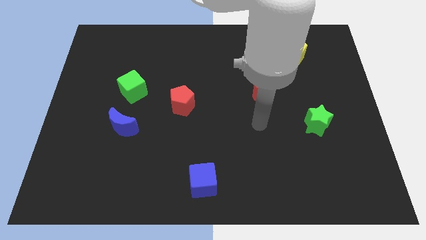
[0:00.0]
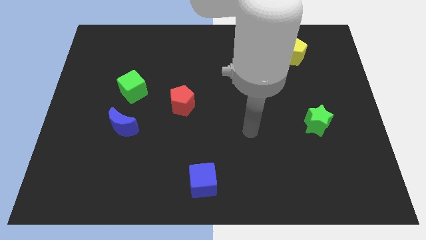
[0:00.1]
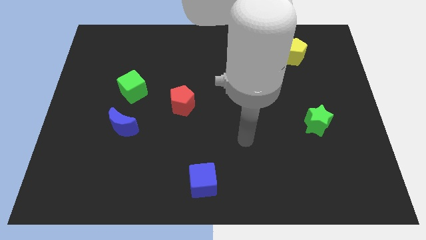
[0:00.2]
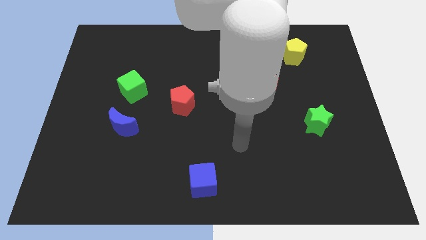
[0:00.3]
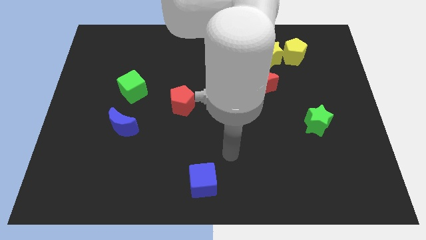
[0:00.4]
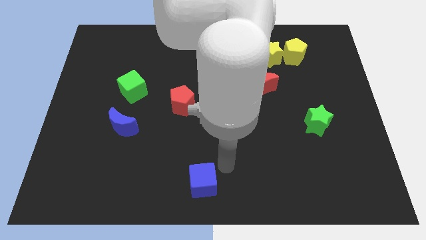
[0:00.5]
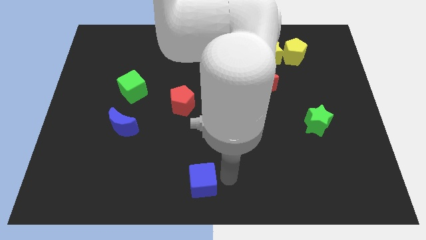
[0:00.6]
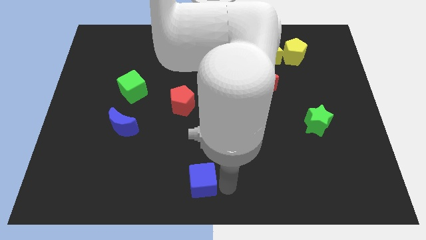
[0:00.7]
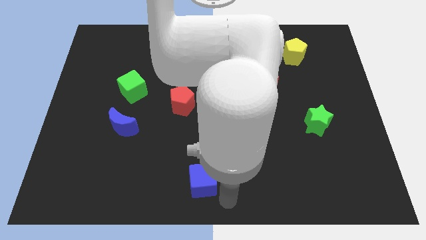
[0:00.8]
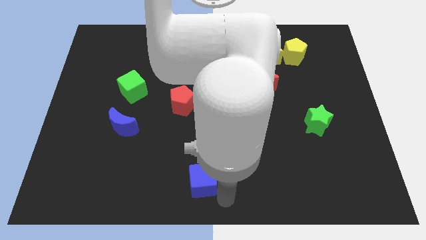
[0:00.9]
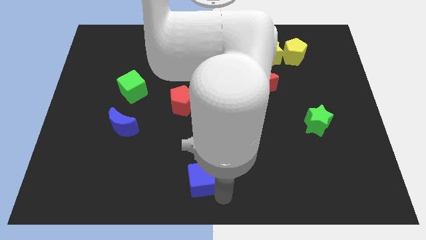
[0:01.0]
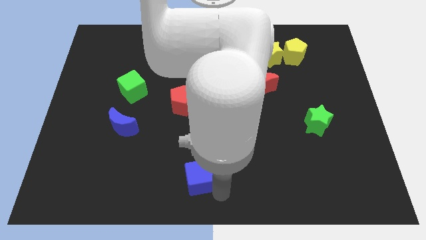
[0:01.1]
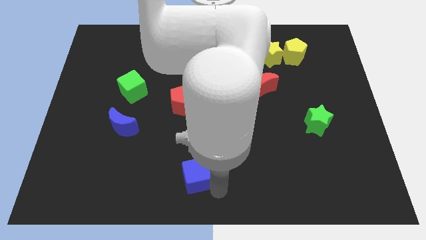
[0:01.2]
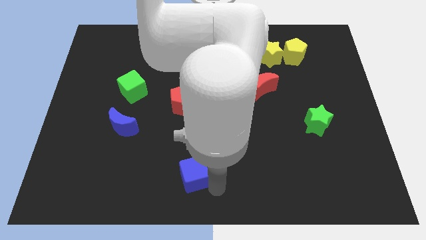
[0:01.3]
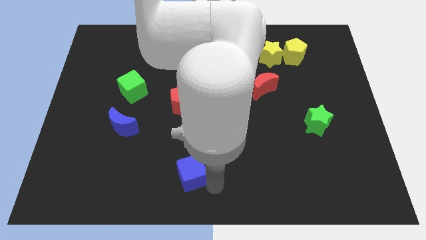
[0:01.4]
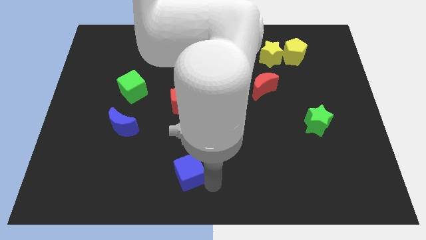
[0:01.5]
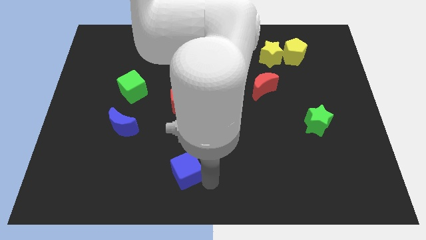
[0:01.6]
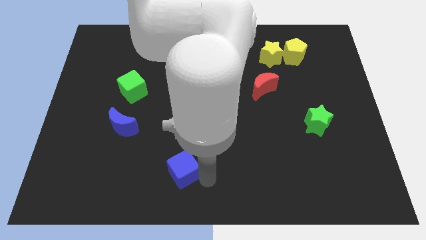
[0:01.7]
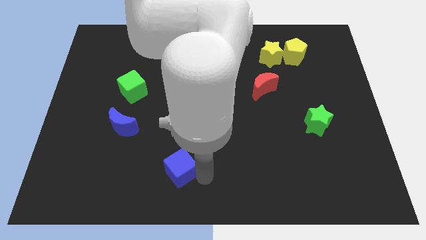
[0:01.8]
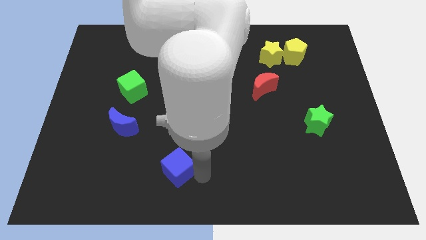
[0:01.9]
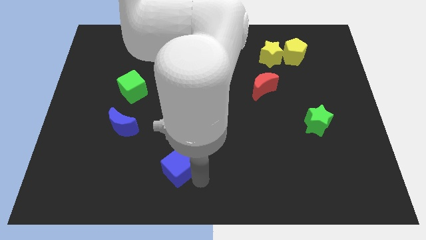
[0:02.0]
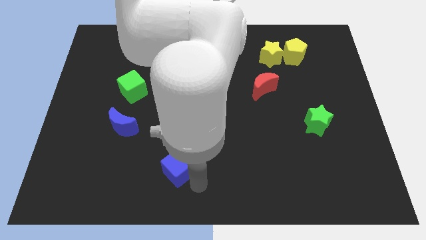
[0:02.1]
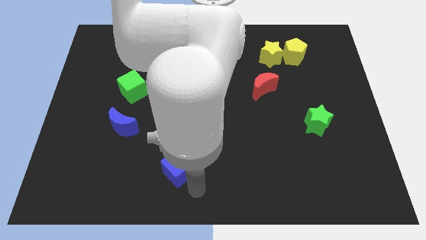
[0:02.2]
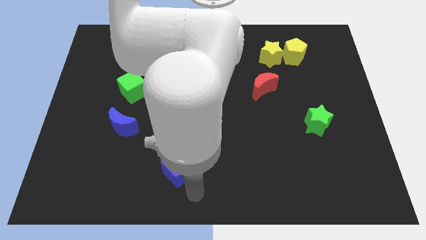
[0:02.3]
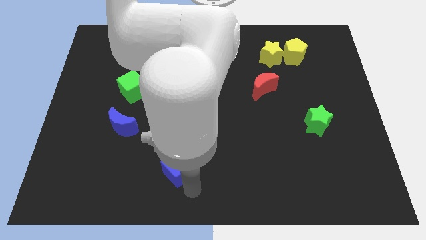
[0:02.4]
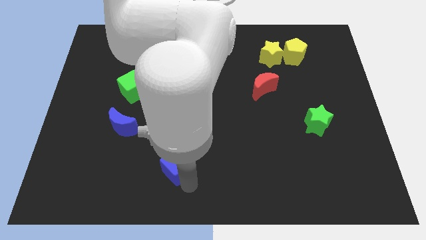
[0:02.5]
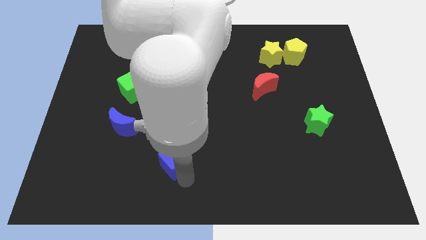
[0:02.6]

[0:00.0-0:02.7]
slide the blue cube a bit diagonally upwards and to the left

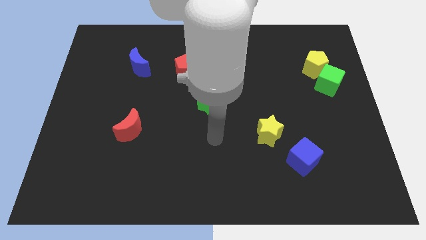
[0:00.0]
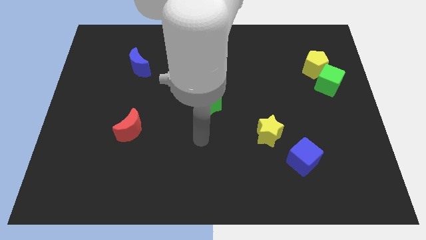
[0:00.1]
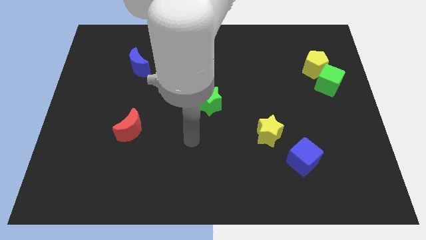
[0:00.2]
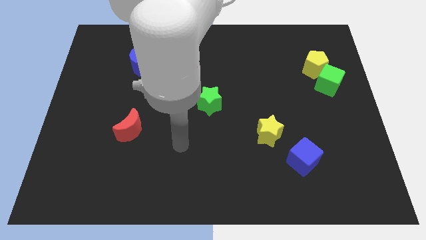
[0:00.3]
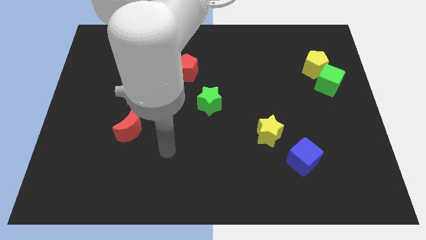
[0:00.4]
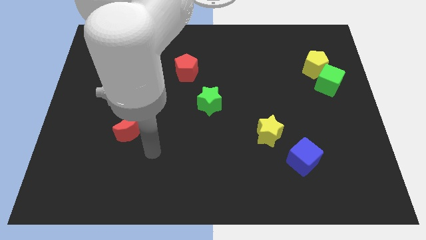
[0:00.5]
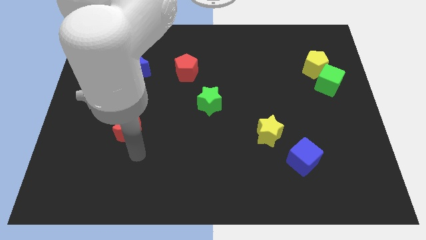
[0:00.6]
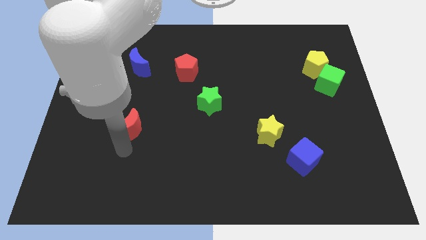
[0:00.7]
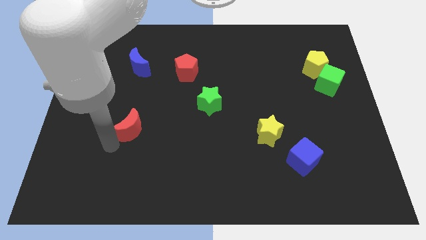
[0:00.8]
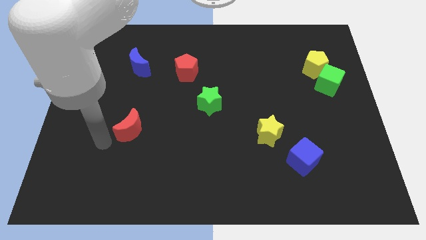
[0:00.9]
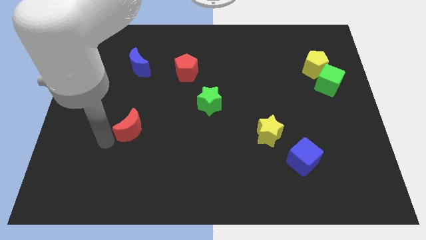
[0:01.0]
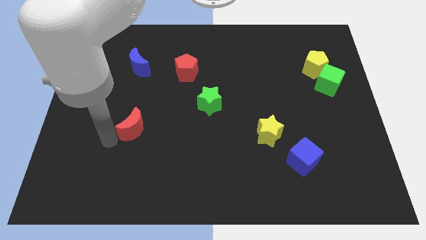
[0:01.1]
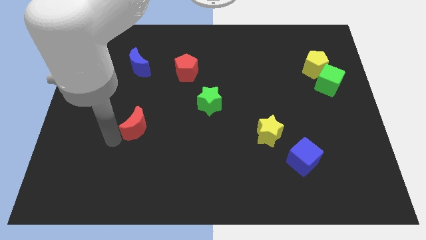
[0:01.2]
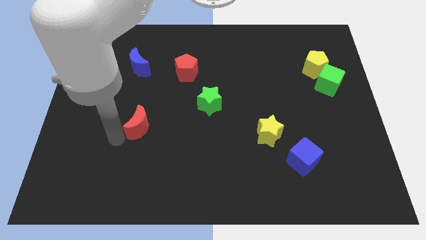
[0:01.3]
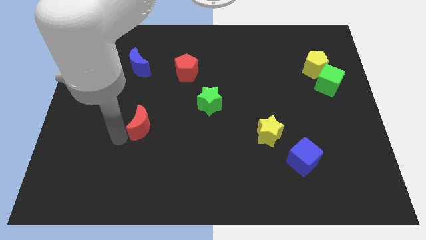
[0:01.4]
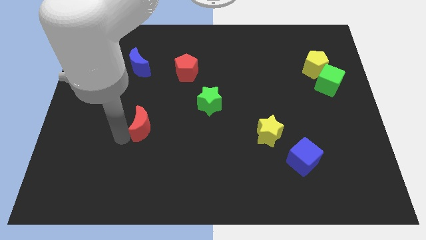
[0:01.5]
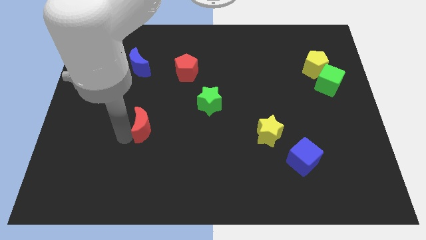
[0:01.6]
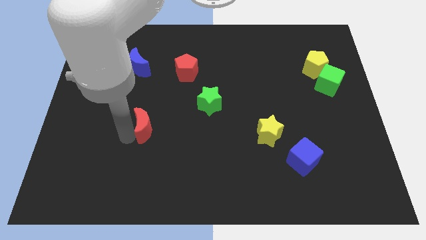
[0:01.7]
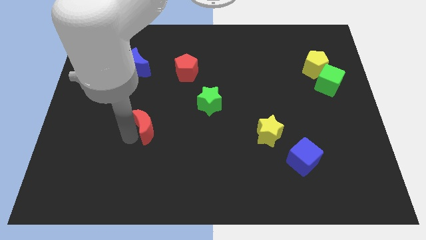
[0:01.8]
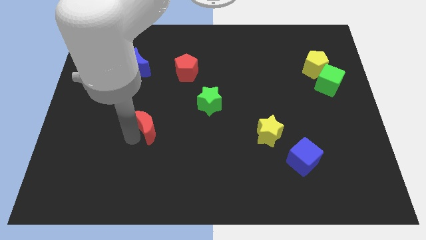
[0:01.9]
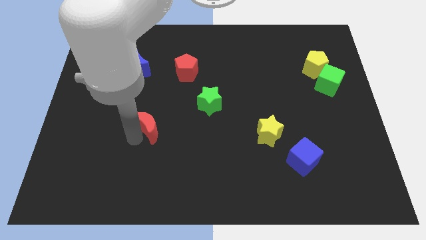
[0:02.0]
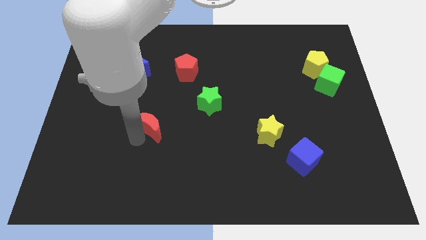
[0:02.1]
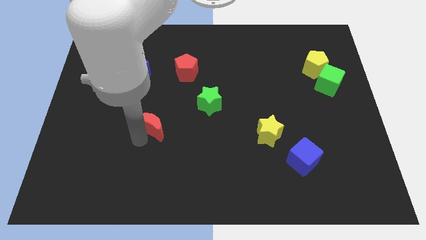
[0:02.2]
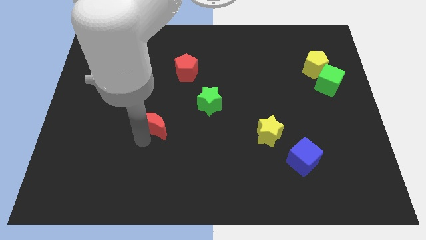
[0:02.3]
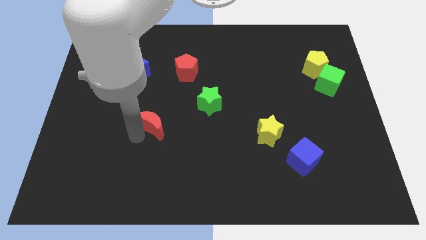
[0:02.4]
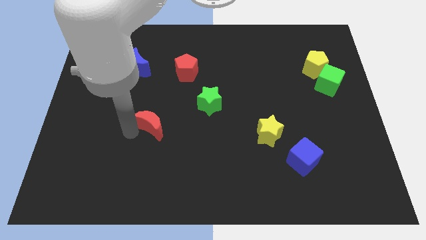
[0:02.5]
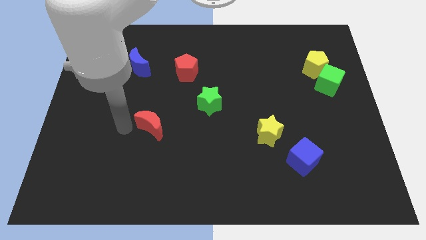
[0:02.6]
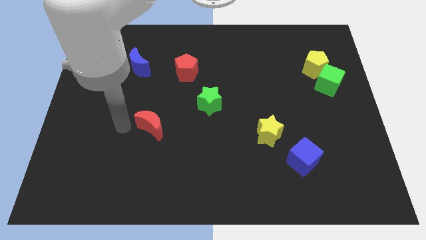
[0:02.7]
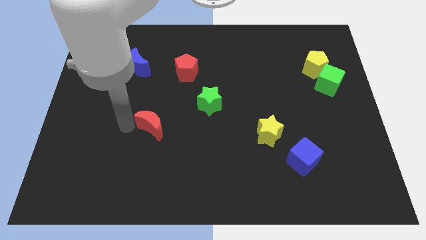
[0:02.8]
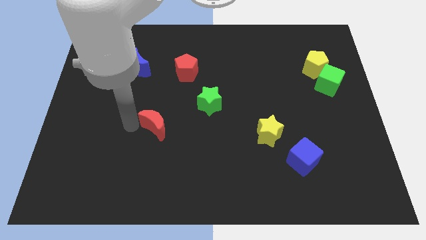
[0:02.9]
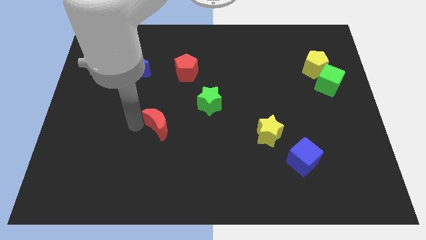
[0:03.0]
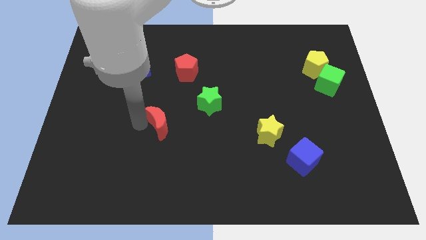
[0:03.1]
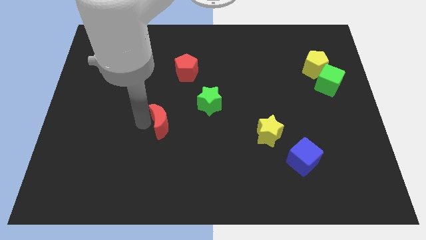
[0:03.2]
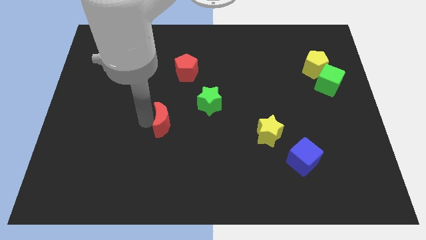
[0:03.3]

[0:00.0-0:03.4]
push the red moon right somewhat

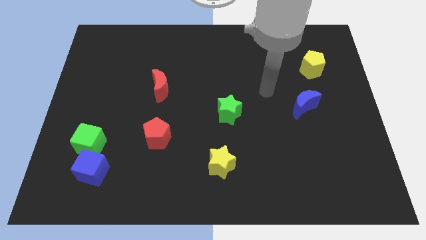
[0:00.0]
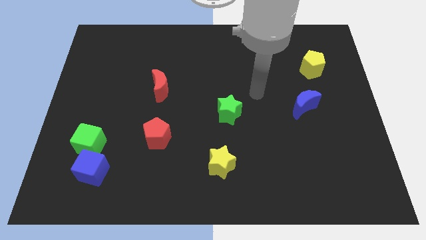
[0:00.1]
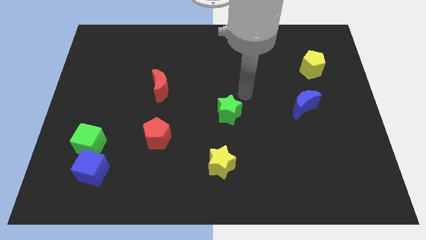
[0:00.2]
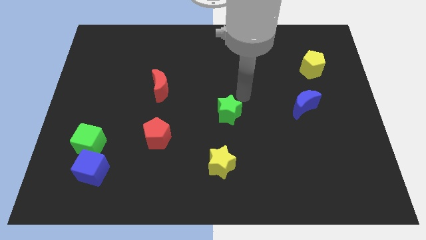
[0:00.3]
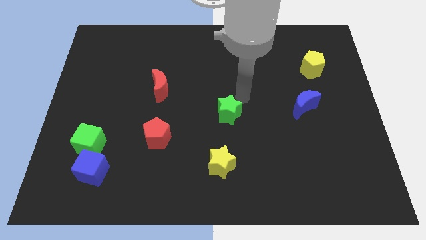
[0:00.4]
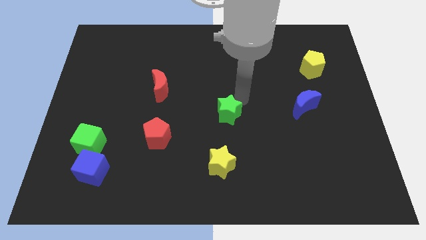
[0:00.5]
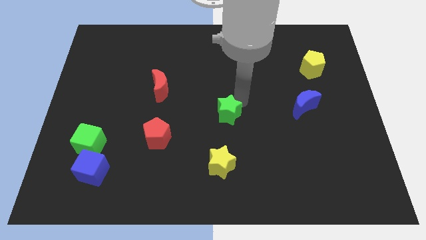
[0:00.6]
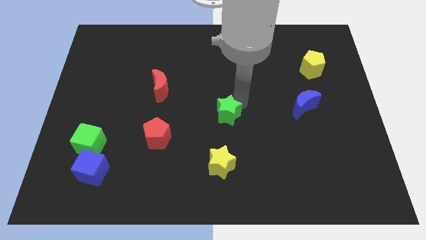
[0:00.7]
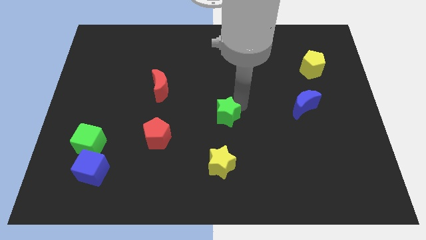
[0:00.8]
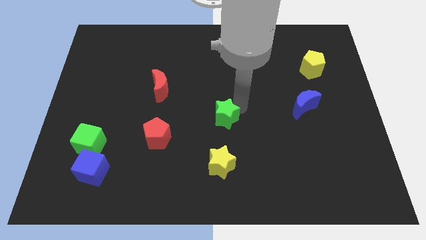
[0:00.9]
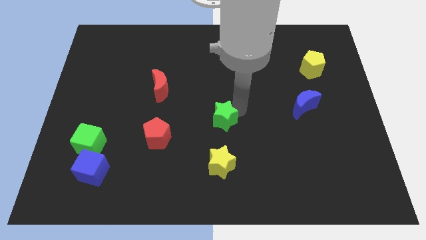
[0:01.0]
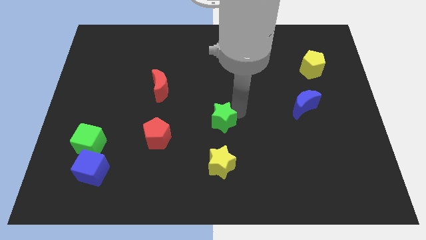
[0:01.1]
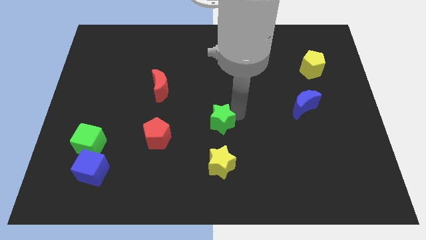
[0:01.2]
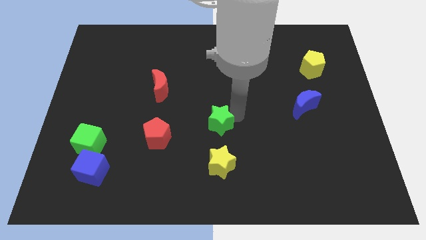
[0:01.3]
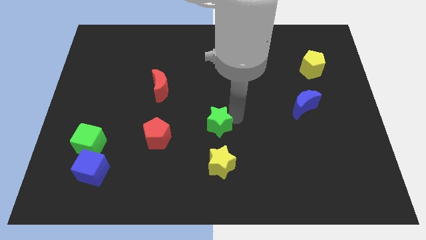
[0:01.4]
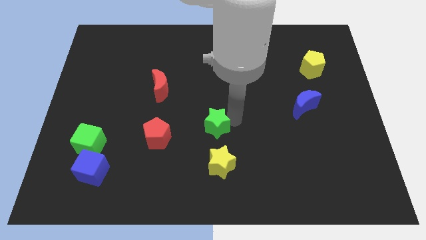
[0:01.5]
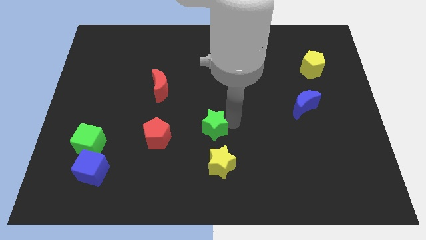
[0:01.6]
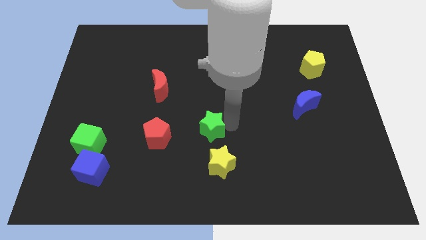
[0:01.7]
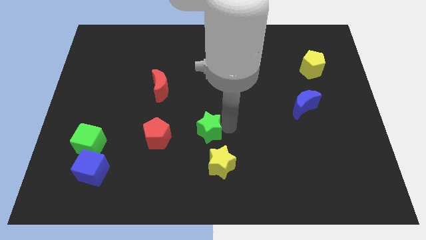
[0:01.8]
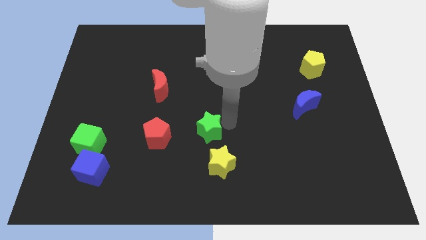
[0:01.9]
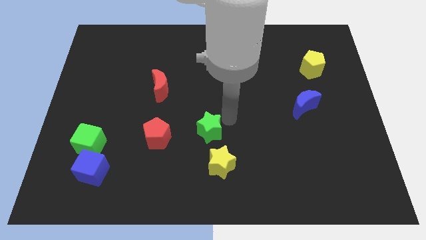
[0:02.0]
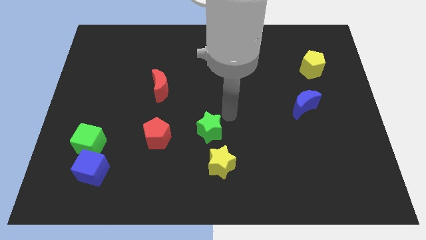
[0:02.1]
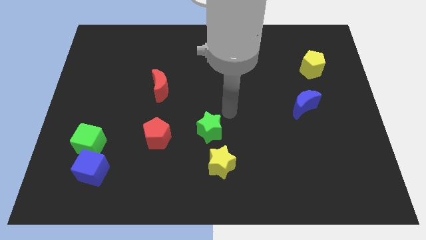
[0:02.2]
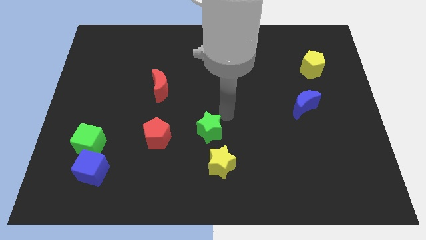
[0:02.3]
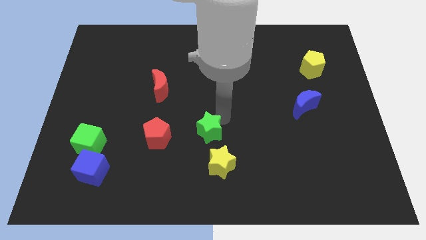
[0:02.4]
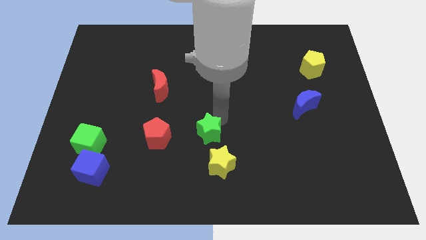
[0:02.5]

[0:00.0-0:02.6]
slightly push the green star diagonally down and to the left
